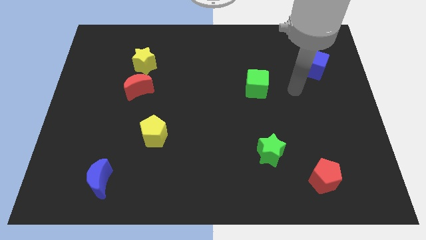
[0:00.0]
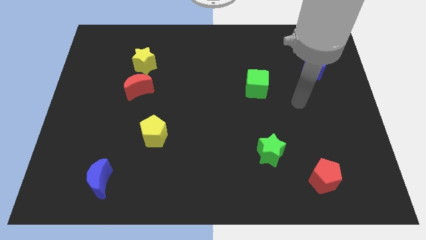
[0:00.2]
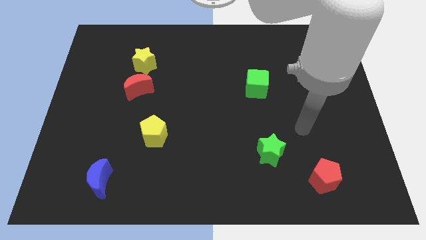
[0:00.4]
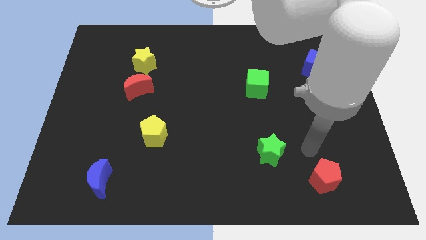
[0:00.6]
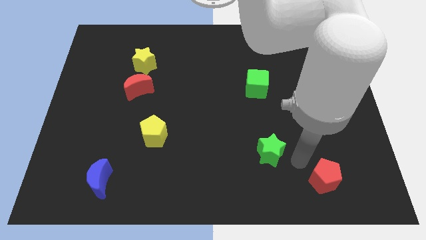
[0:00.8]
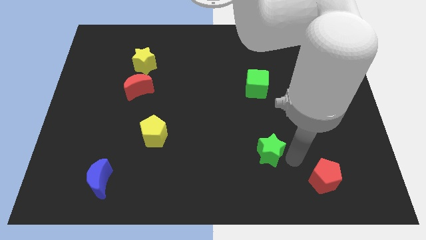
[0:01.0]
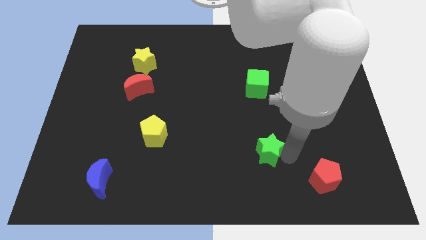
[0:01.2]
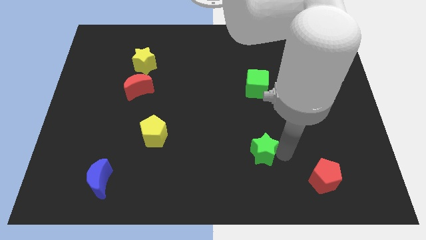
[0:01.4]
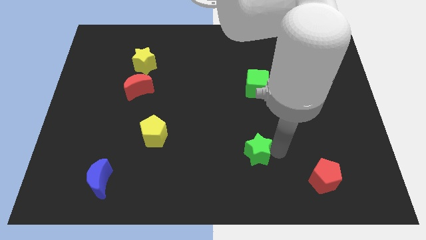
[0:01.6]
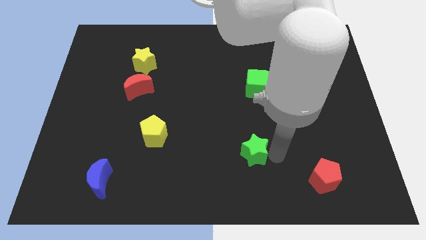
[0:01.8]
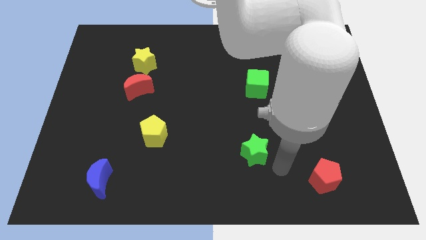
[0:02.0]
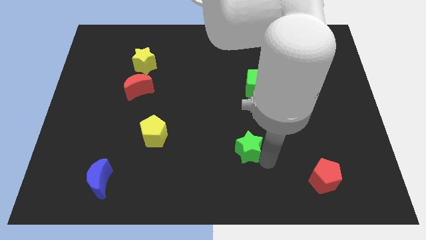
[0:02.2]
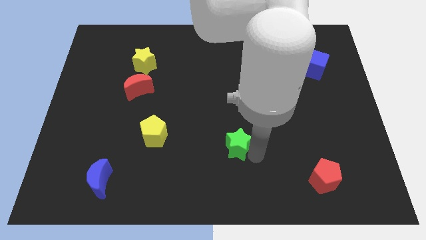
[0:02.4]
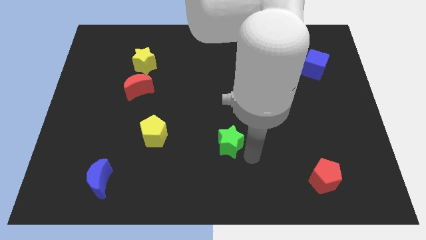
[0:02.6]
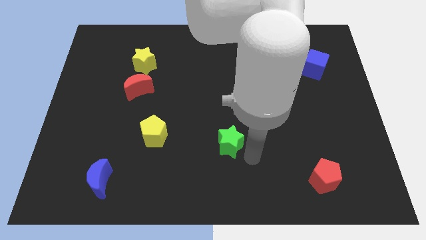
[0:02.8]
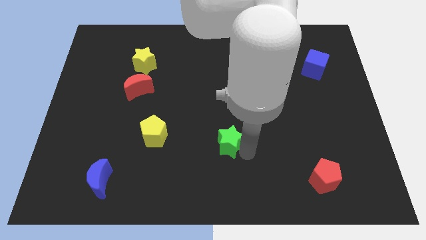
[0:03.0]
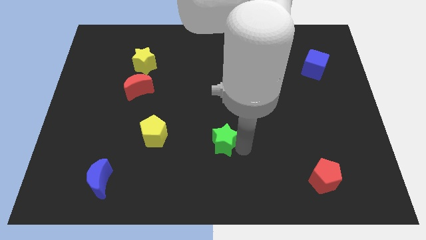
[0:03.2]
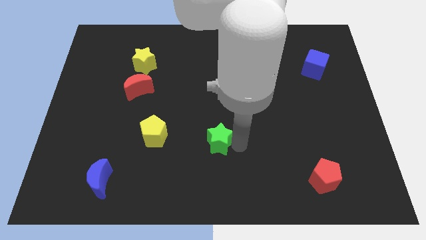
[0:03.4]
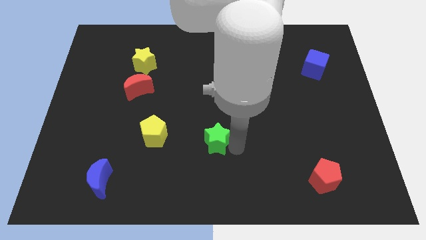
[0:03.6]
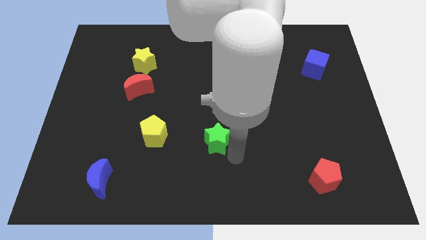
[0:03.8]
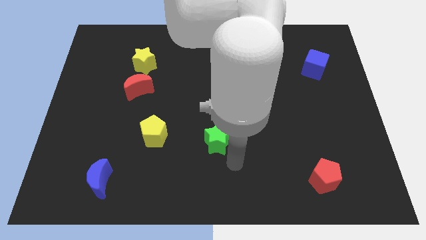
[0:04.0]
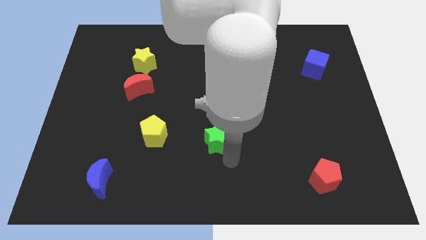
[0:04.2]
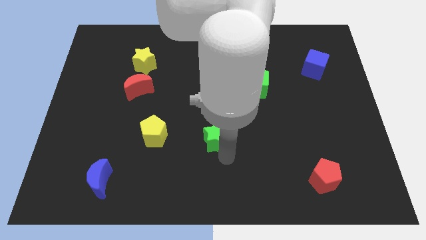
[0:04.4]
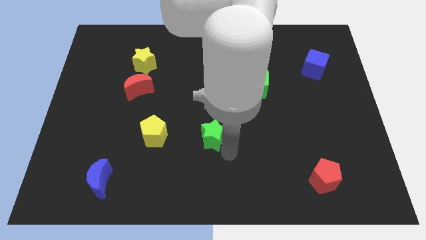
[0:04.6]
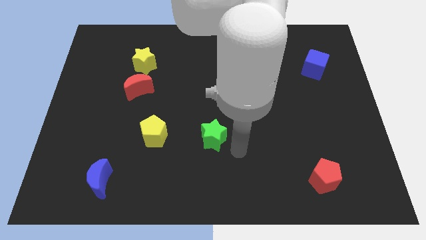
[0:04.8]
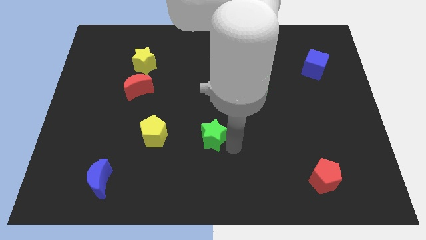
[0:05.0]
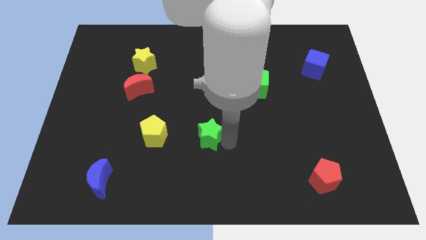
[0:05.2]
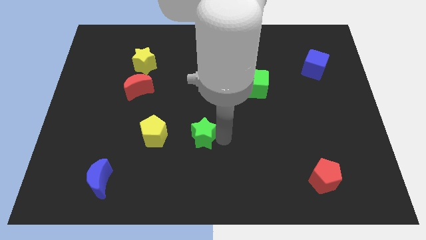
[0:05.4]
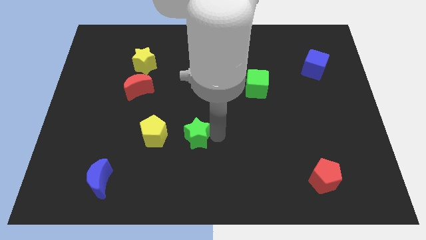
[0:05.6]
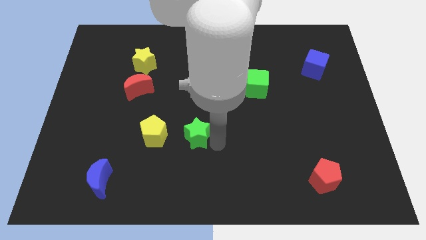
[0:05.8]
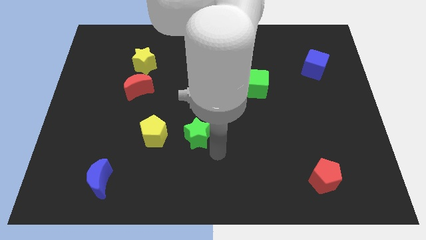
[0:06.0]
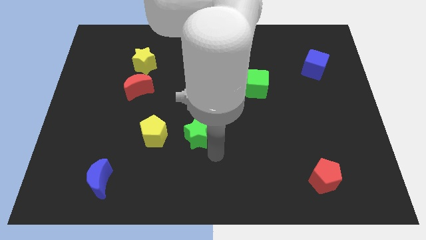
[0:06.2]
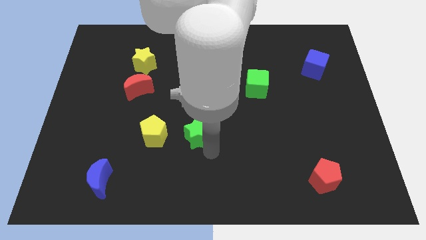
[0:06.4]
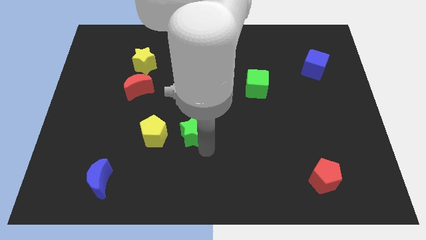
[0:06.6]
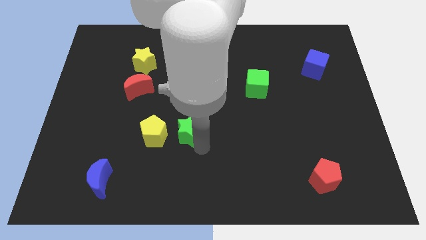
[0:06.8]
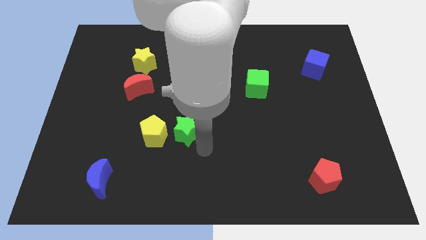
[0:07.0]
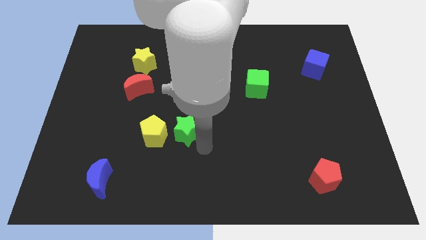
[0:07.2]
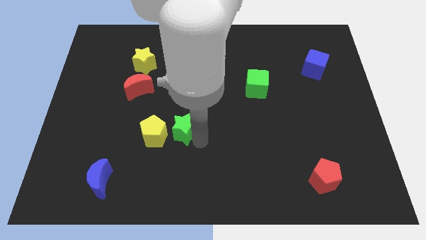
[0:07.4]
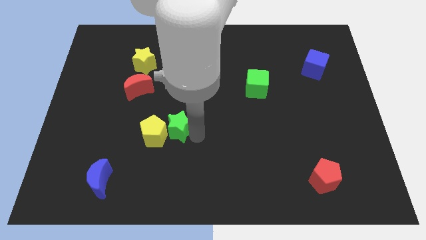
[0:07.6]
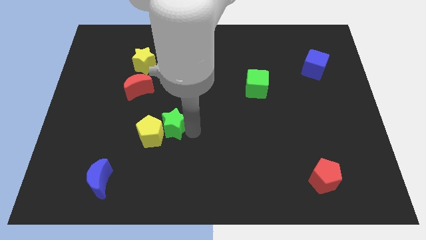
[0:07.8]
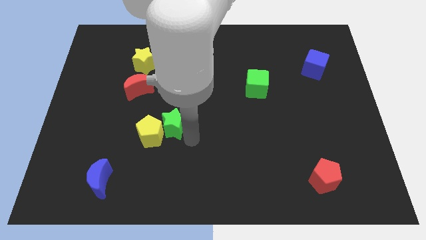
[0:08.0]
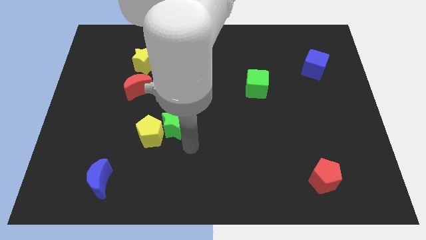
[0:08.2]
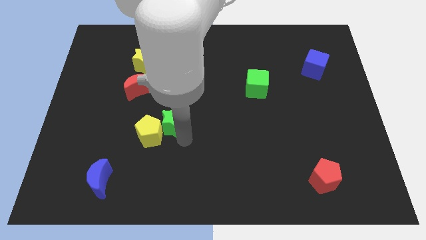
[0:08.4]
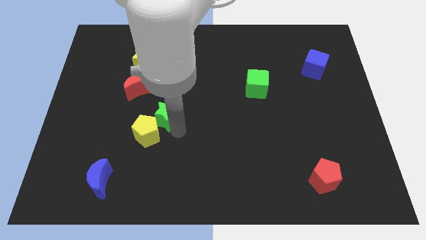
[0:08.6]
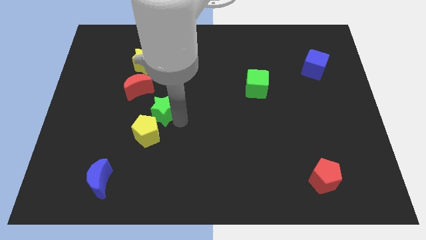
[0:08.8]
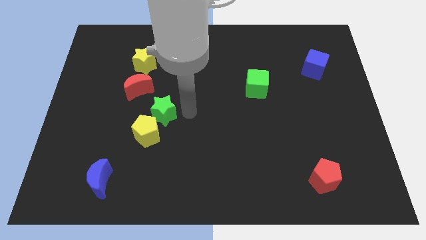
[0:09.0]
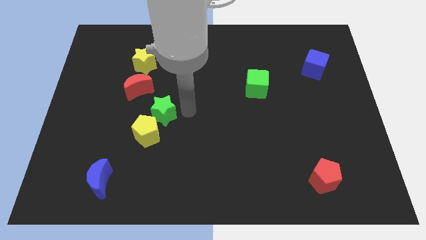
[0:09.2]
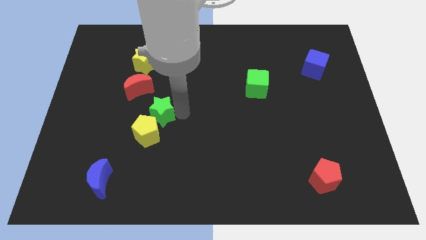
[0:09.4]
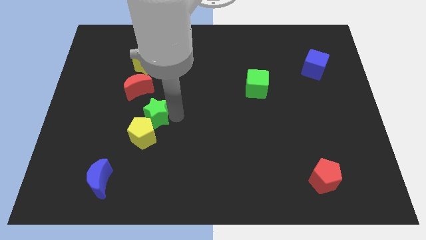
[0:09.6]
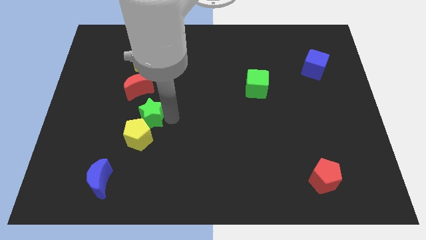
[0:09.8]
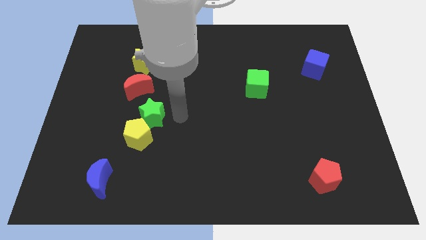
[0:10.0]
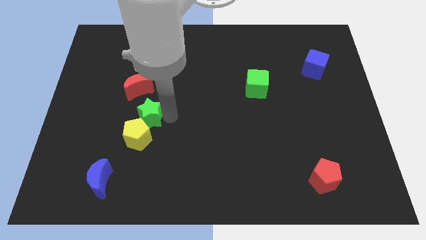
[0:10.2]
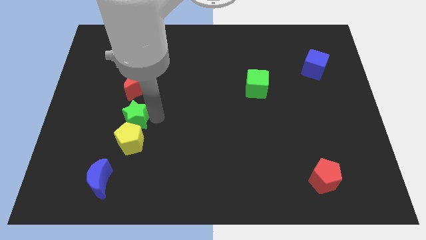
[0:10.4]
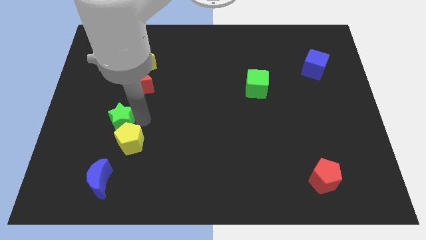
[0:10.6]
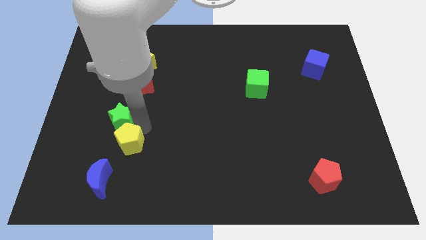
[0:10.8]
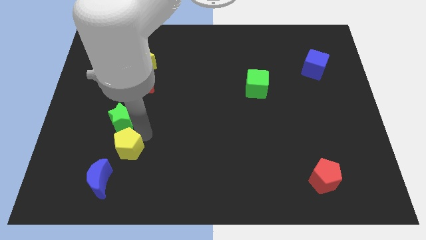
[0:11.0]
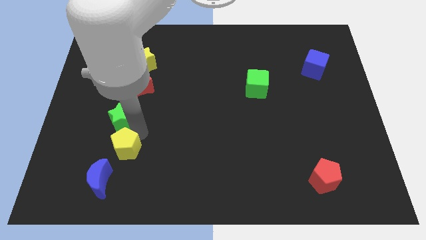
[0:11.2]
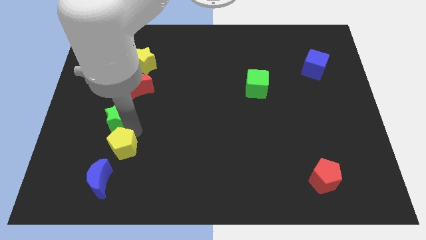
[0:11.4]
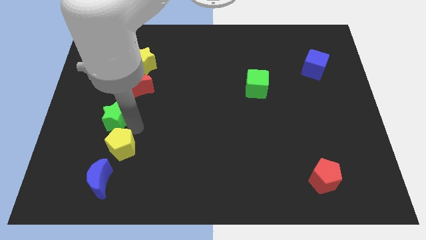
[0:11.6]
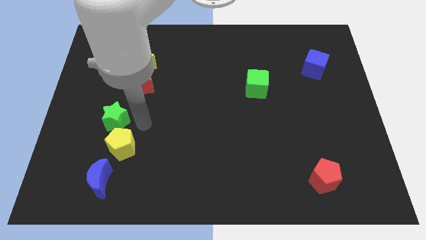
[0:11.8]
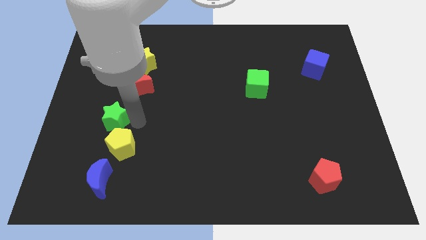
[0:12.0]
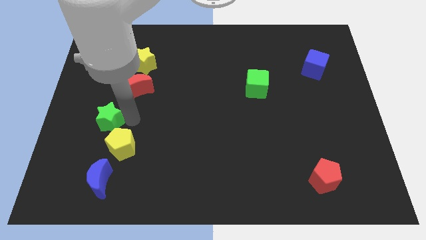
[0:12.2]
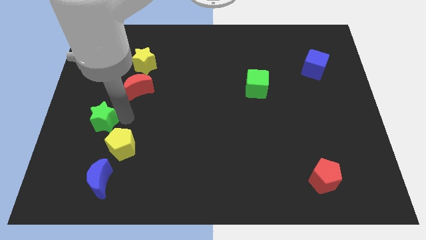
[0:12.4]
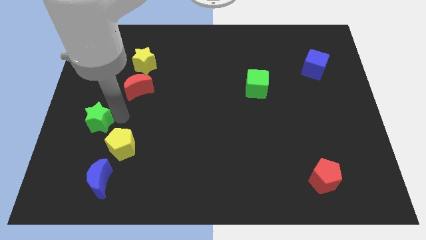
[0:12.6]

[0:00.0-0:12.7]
push the green star to the left side
